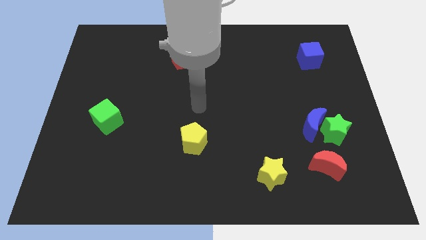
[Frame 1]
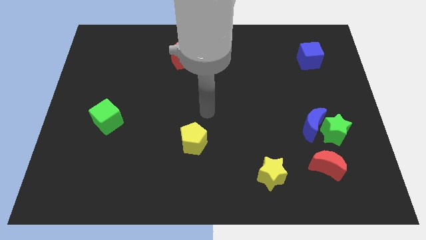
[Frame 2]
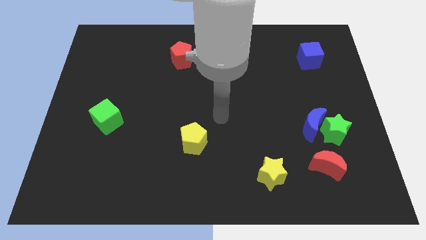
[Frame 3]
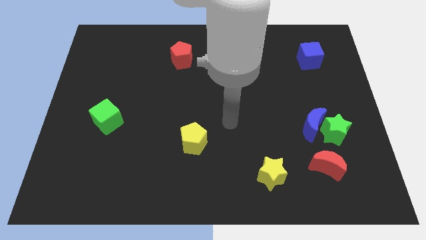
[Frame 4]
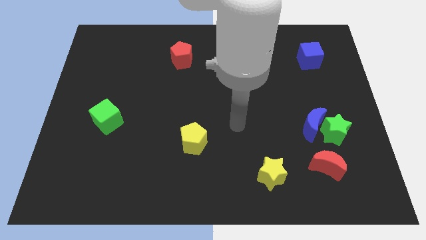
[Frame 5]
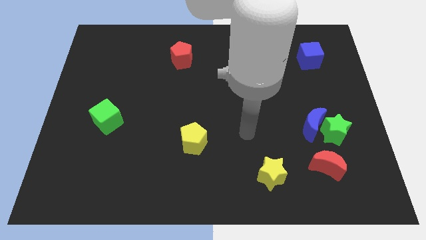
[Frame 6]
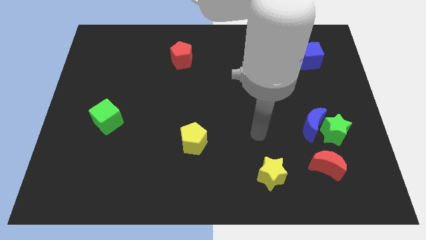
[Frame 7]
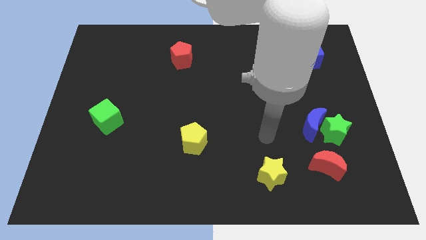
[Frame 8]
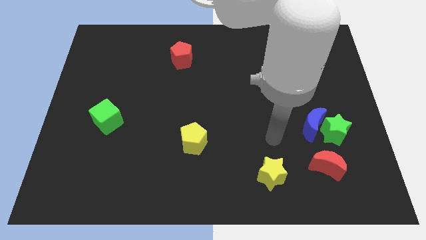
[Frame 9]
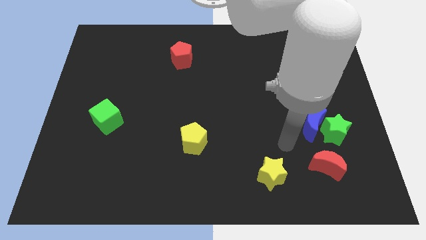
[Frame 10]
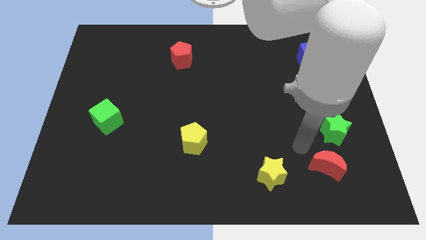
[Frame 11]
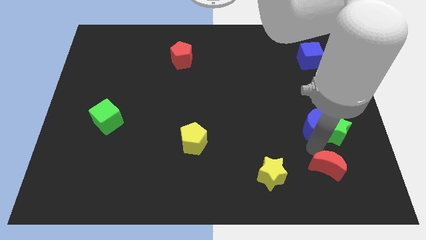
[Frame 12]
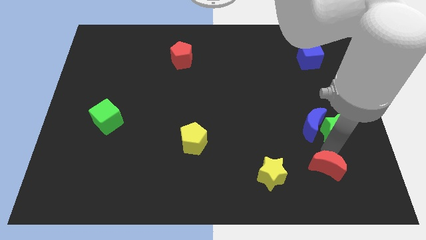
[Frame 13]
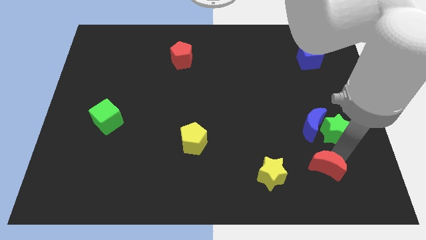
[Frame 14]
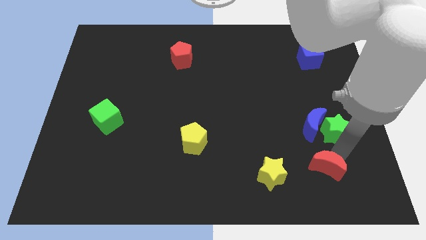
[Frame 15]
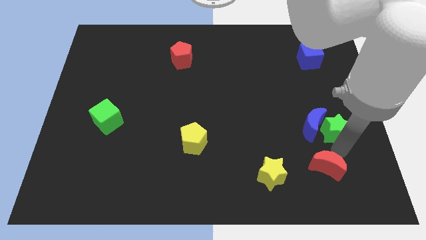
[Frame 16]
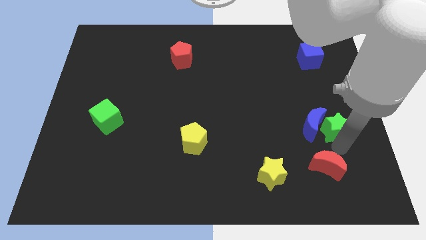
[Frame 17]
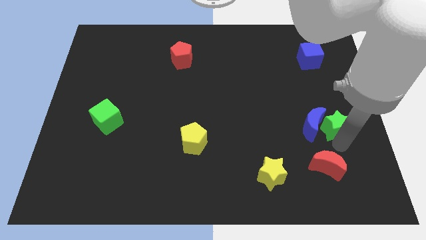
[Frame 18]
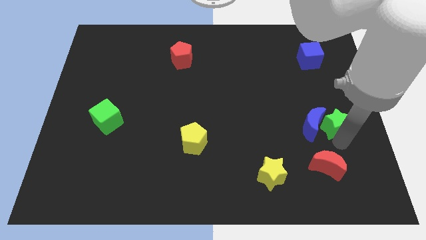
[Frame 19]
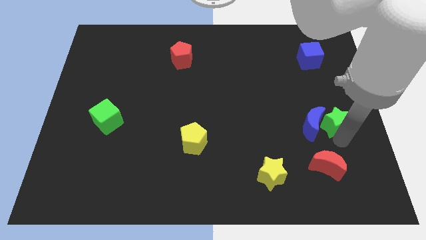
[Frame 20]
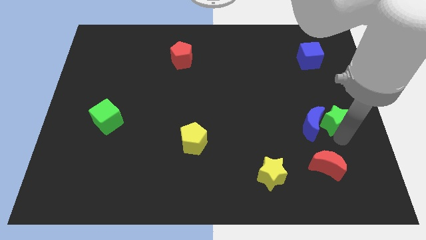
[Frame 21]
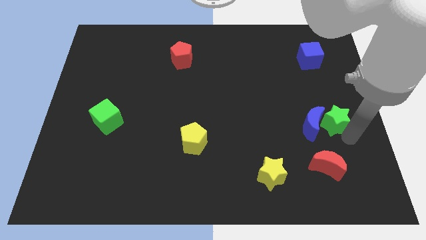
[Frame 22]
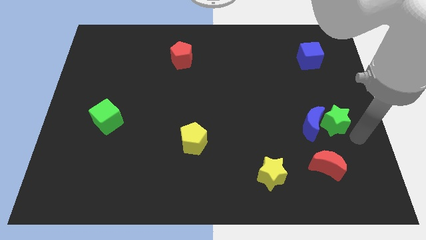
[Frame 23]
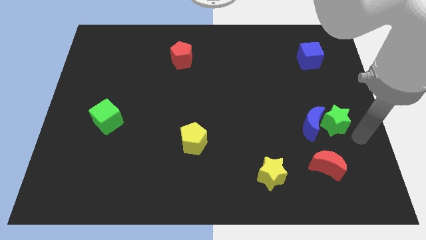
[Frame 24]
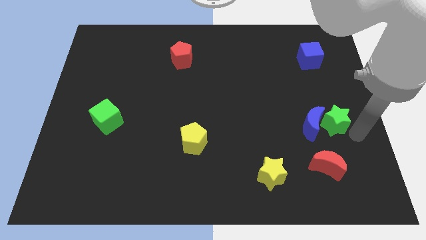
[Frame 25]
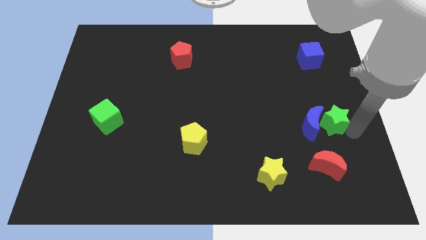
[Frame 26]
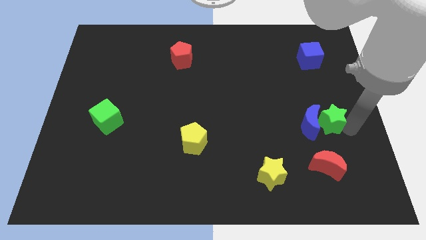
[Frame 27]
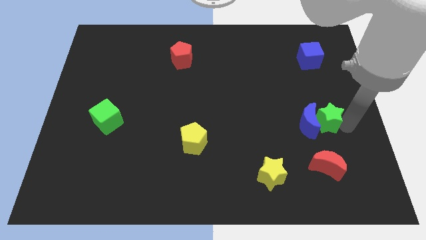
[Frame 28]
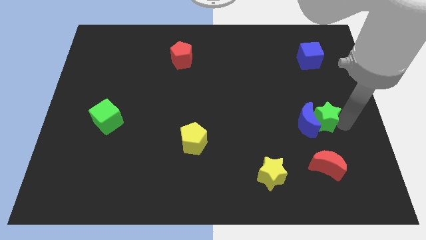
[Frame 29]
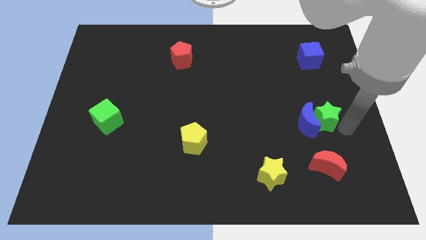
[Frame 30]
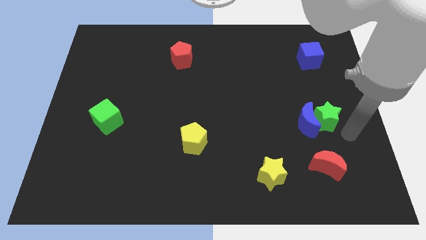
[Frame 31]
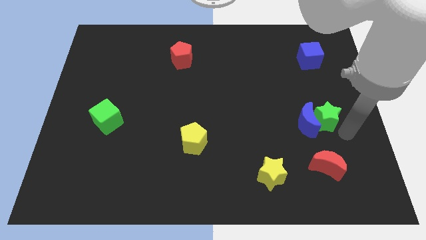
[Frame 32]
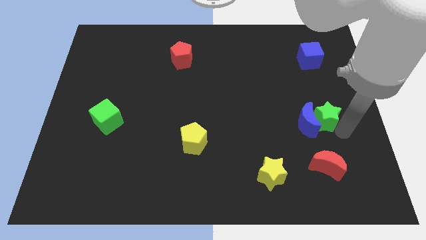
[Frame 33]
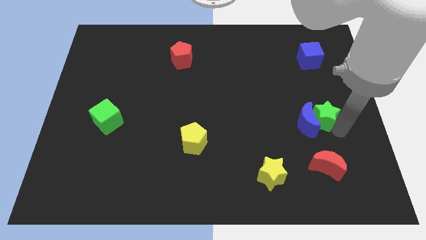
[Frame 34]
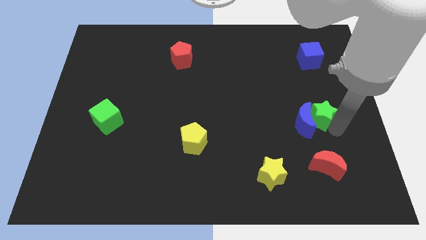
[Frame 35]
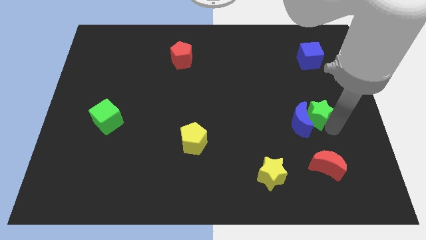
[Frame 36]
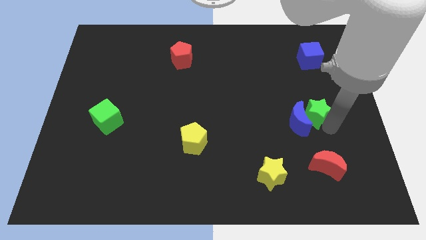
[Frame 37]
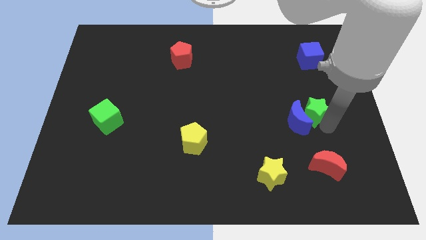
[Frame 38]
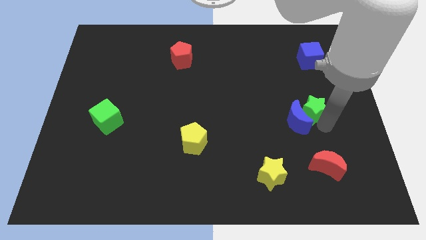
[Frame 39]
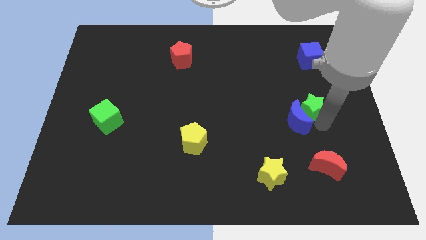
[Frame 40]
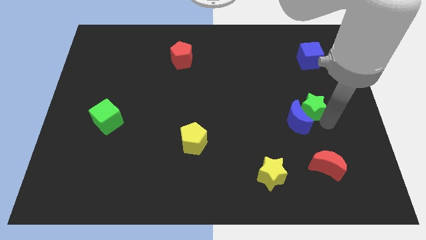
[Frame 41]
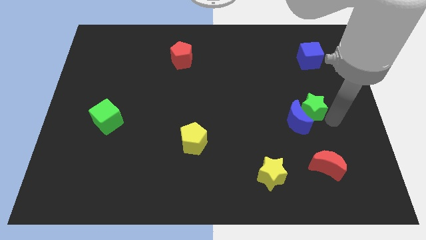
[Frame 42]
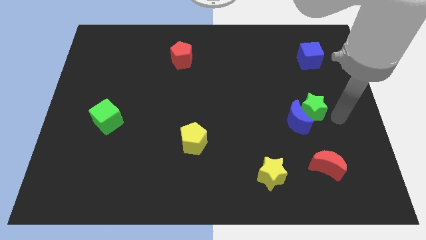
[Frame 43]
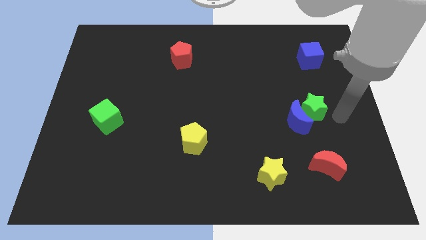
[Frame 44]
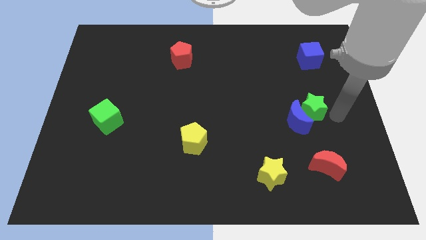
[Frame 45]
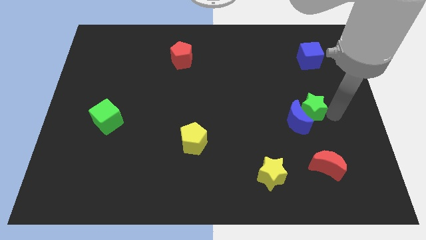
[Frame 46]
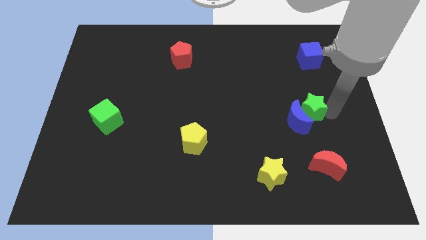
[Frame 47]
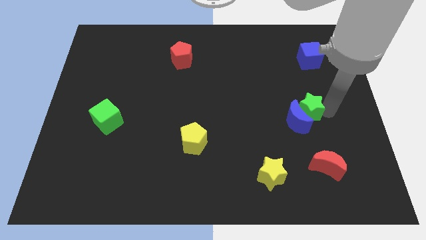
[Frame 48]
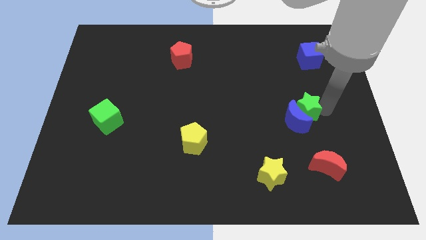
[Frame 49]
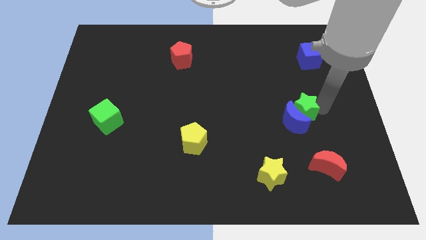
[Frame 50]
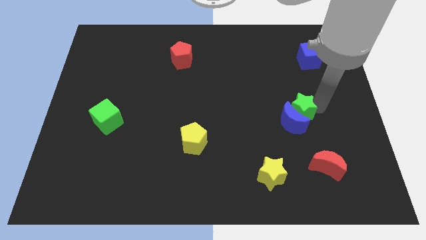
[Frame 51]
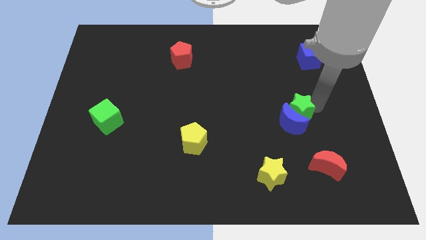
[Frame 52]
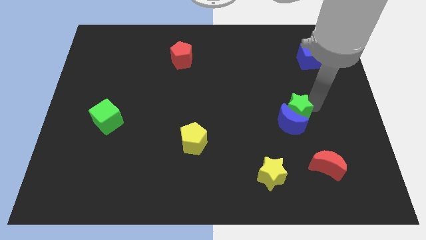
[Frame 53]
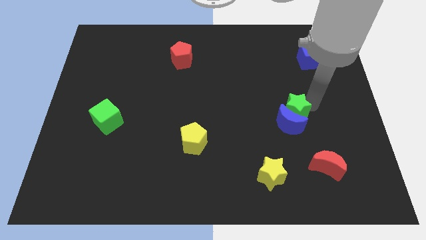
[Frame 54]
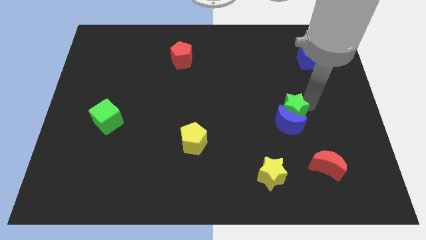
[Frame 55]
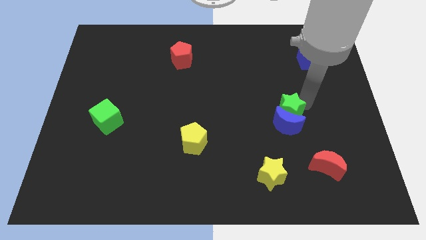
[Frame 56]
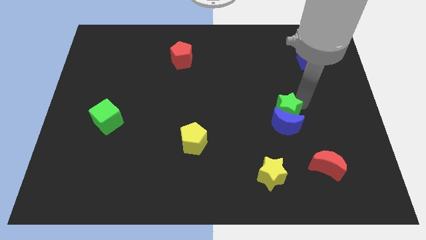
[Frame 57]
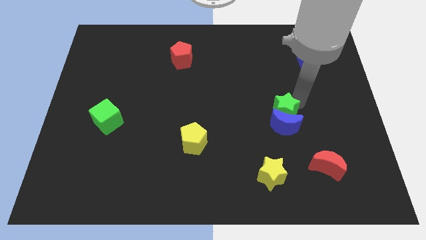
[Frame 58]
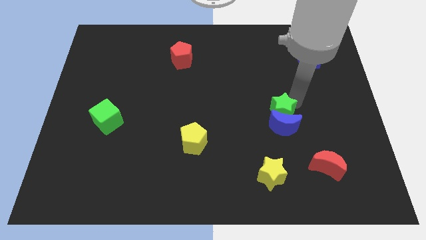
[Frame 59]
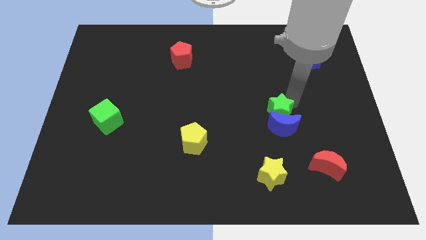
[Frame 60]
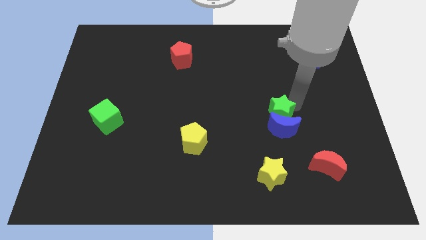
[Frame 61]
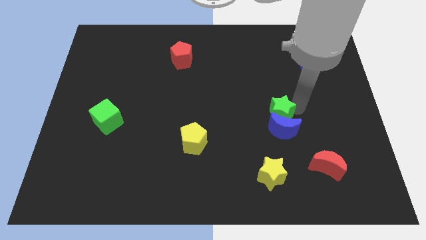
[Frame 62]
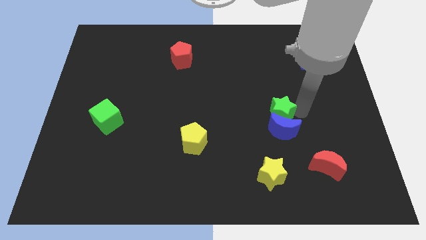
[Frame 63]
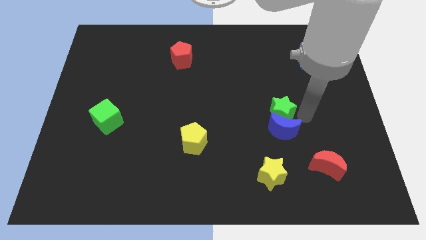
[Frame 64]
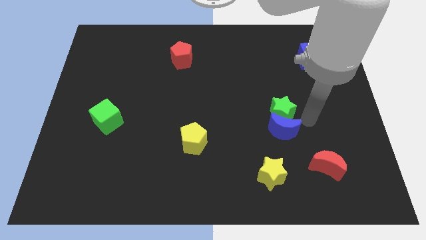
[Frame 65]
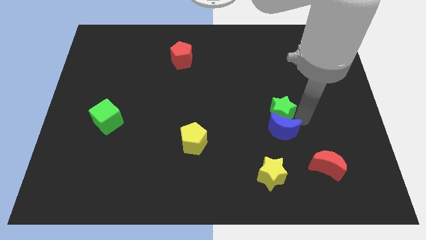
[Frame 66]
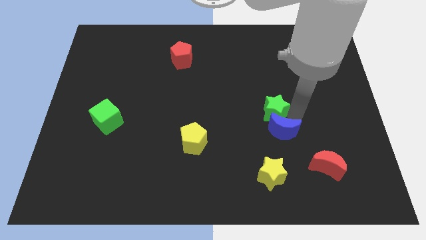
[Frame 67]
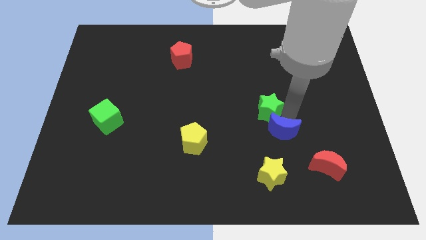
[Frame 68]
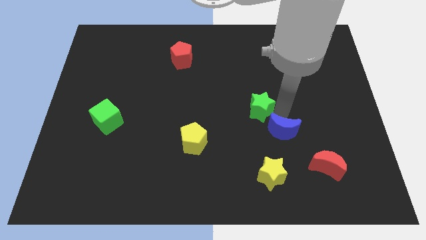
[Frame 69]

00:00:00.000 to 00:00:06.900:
slide the green star to the center
